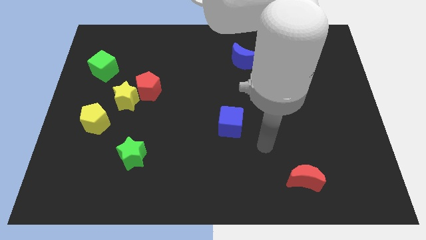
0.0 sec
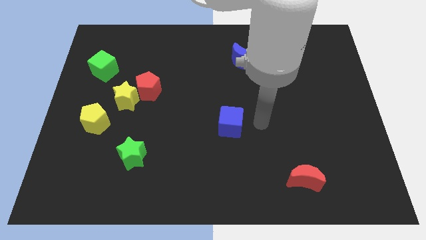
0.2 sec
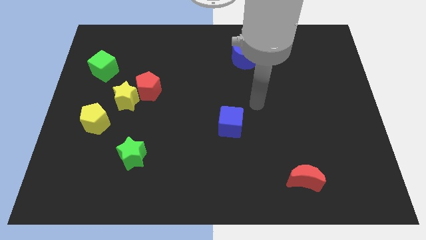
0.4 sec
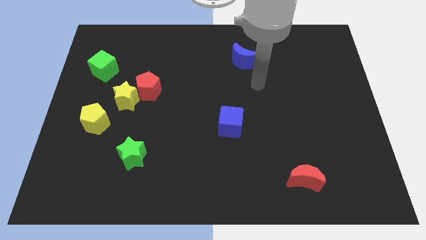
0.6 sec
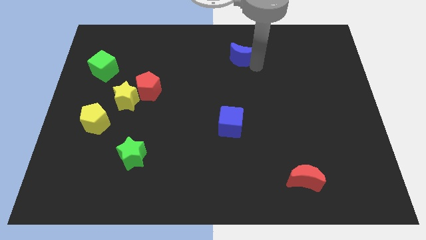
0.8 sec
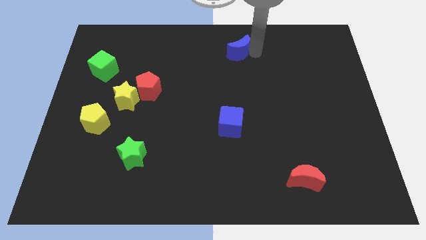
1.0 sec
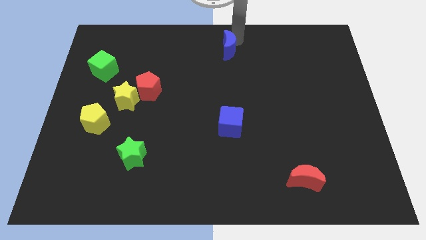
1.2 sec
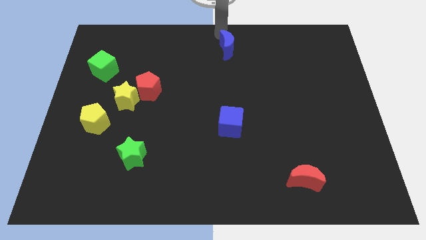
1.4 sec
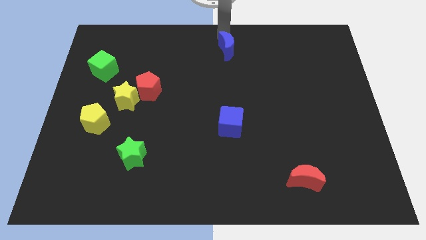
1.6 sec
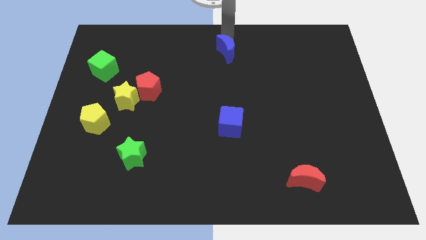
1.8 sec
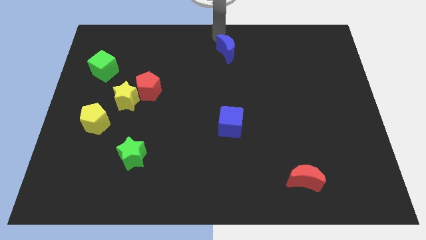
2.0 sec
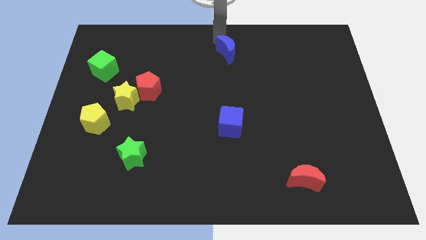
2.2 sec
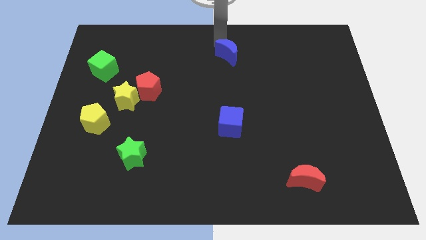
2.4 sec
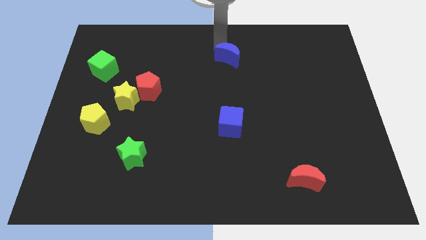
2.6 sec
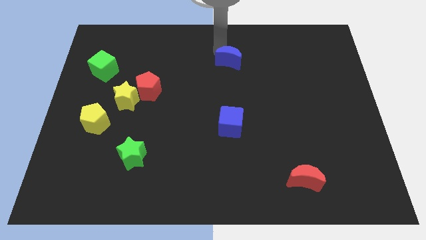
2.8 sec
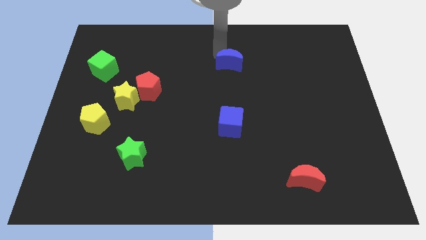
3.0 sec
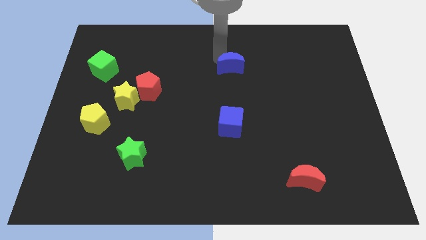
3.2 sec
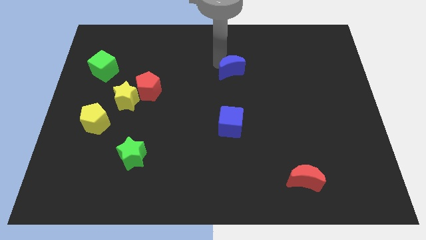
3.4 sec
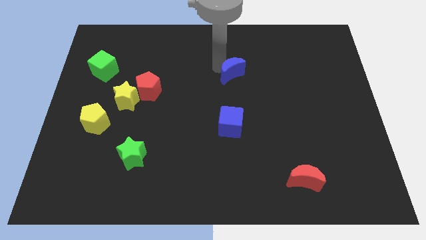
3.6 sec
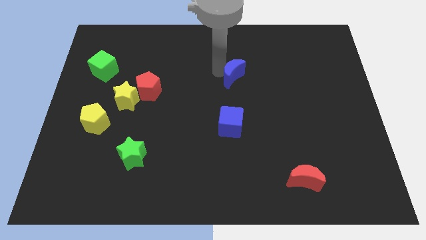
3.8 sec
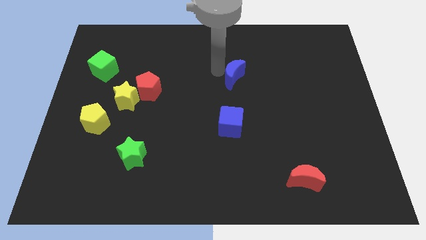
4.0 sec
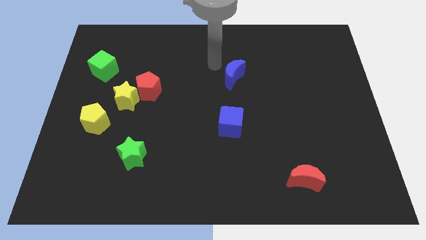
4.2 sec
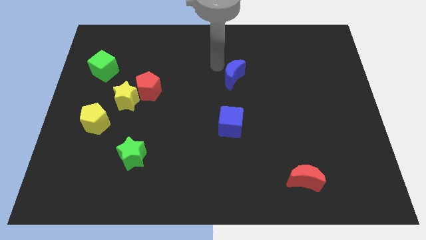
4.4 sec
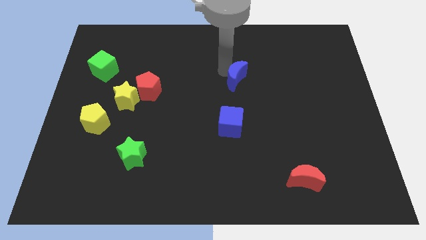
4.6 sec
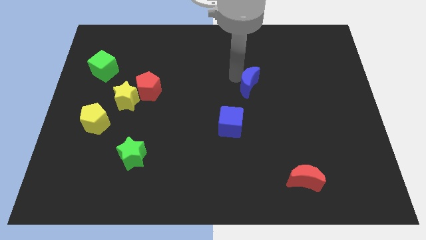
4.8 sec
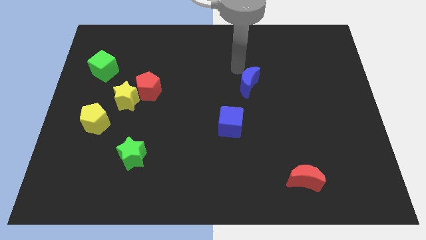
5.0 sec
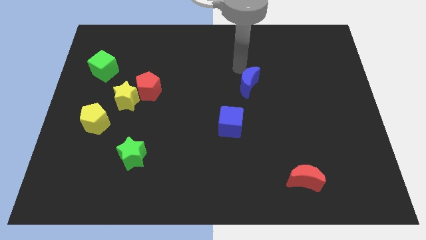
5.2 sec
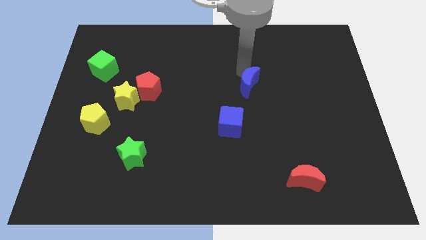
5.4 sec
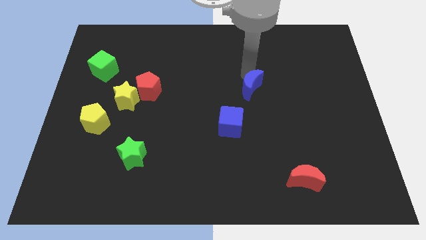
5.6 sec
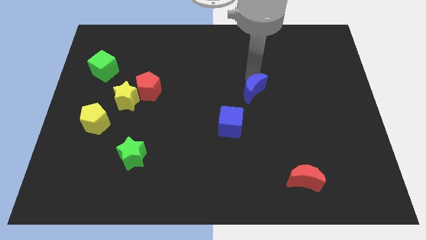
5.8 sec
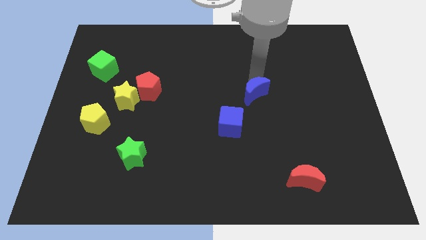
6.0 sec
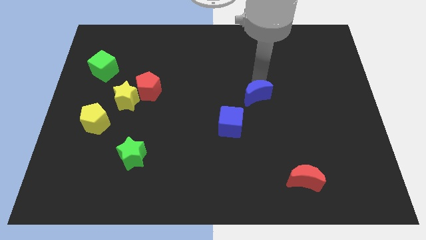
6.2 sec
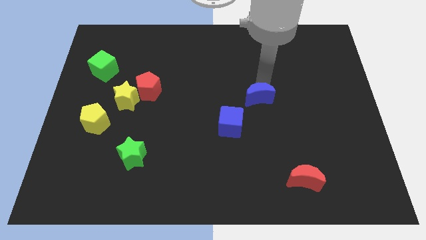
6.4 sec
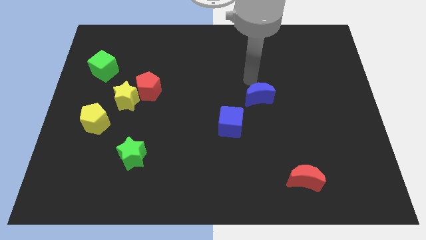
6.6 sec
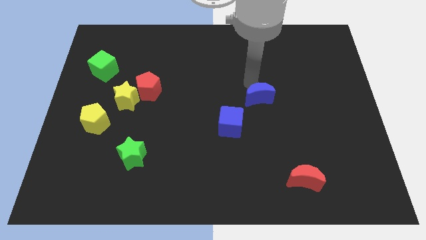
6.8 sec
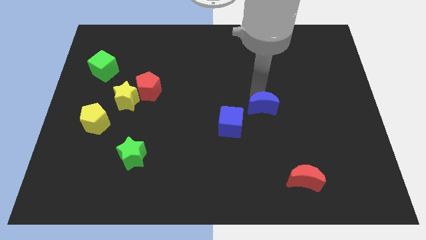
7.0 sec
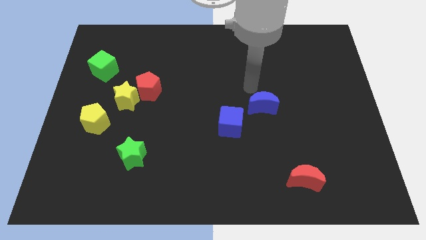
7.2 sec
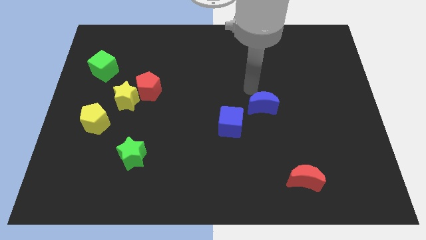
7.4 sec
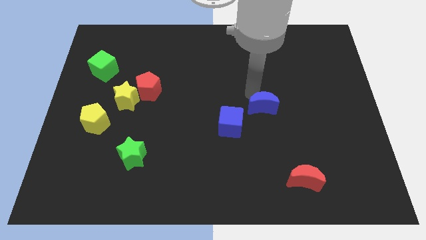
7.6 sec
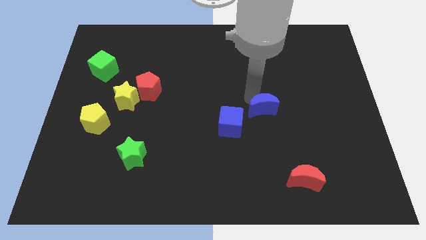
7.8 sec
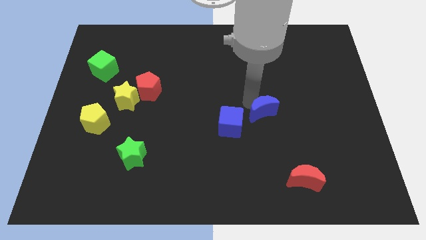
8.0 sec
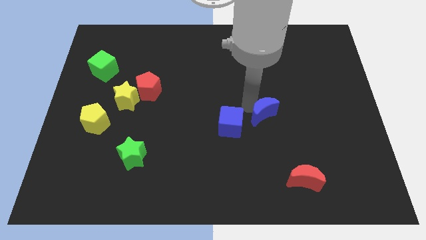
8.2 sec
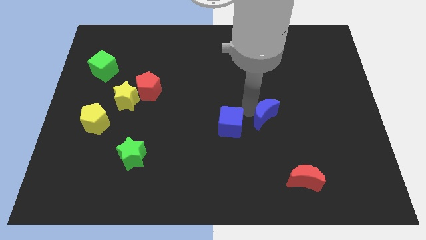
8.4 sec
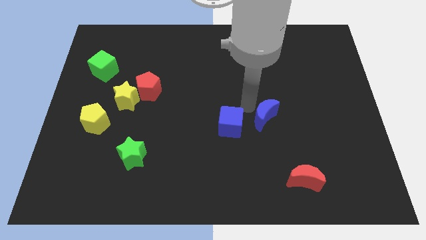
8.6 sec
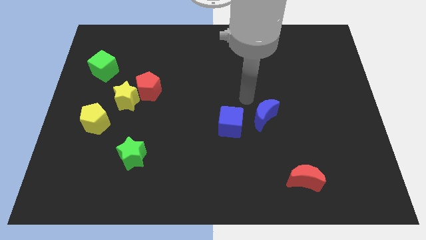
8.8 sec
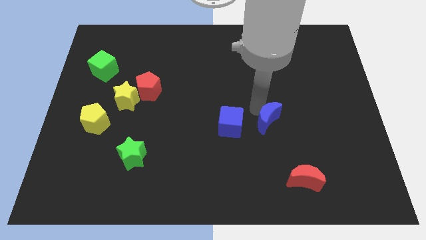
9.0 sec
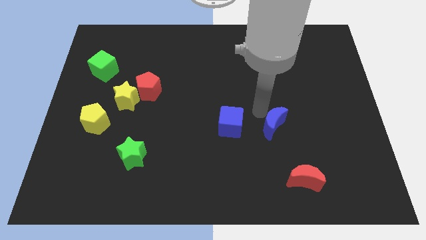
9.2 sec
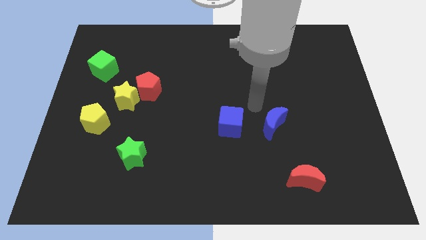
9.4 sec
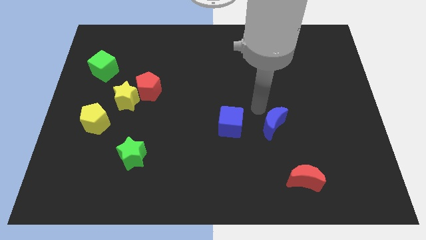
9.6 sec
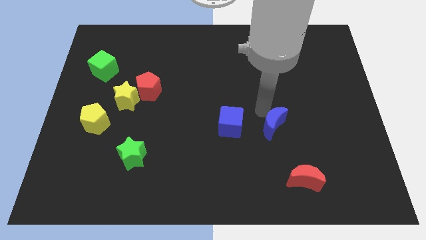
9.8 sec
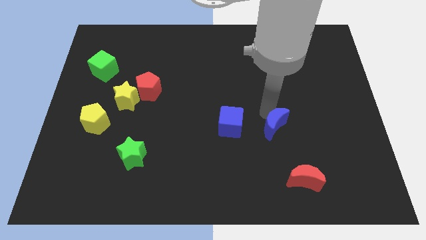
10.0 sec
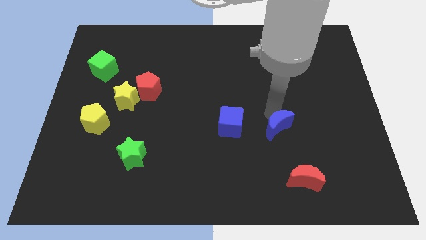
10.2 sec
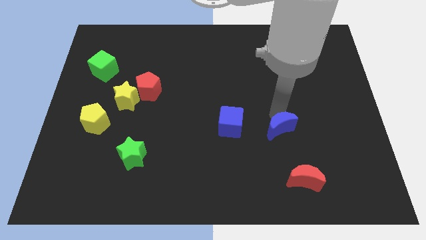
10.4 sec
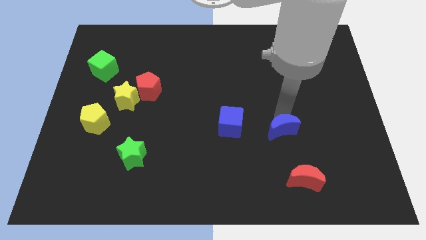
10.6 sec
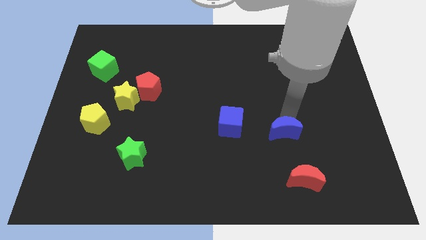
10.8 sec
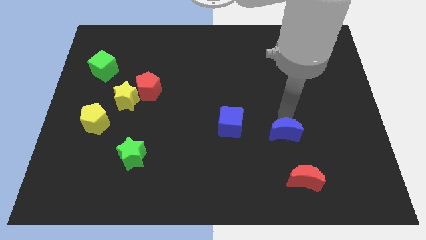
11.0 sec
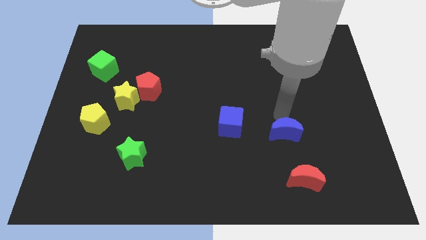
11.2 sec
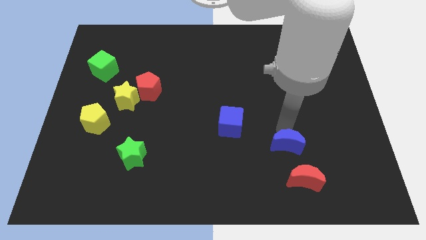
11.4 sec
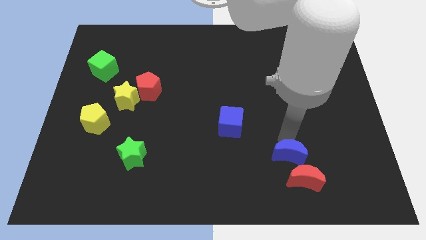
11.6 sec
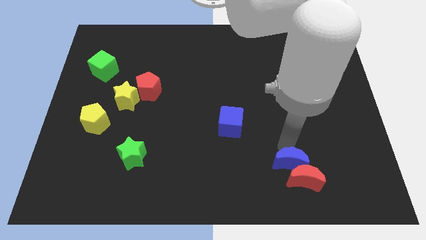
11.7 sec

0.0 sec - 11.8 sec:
push the blue moon close to the red moon
